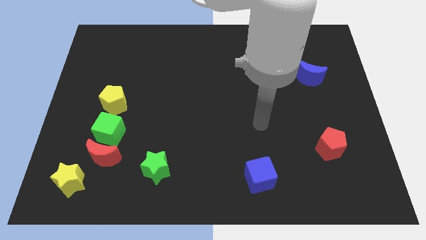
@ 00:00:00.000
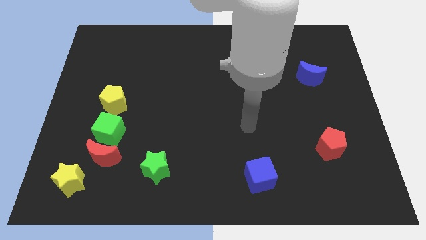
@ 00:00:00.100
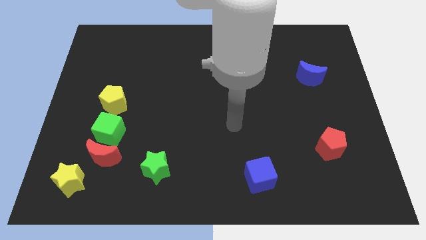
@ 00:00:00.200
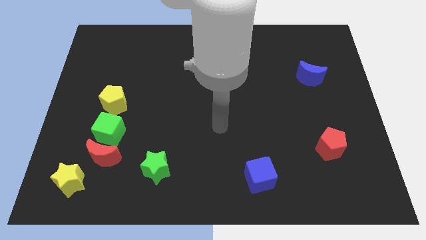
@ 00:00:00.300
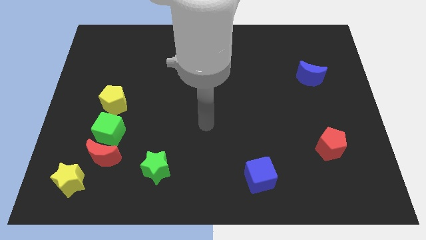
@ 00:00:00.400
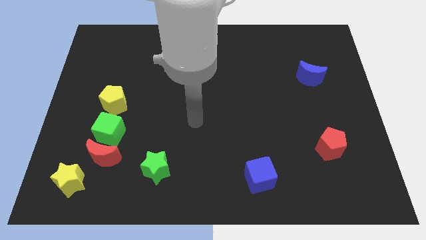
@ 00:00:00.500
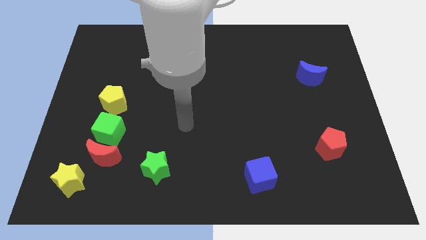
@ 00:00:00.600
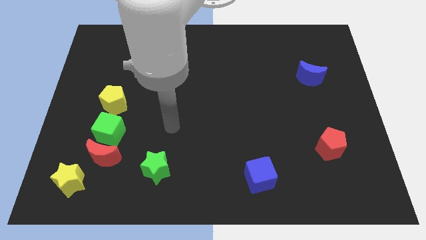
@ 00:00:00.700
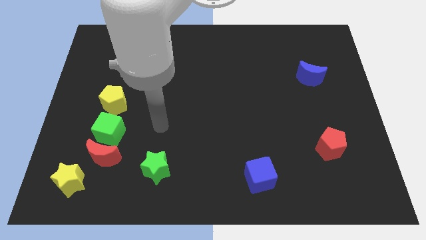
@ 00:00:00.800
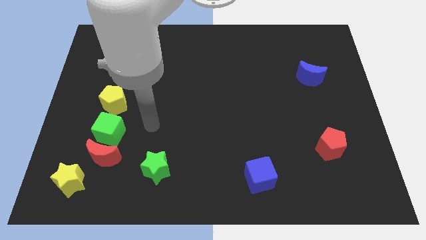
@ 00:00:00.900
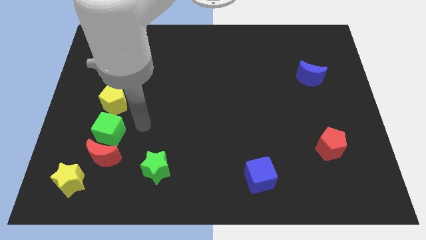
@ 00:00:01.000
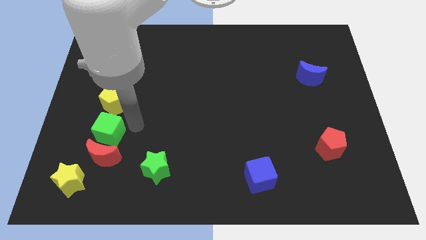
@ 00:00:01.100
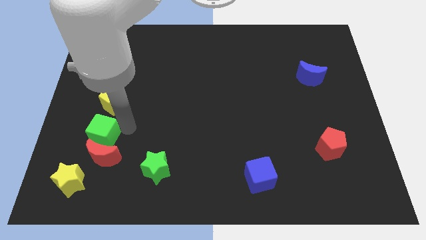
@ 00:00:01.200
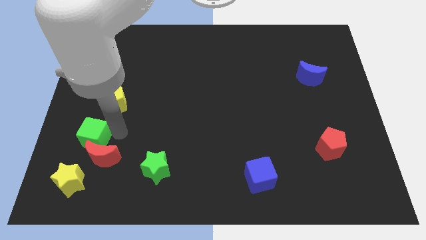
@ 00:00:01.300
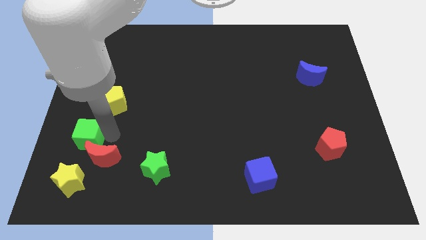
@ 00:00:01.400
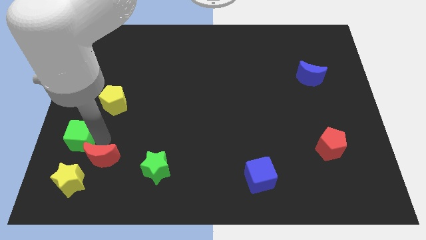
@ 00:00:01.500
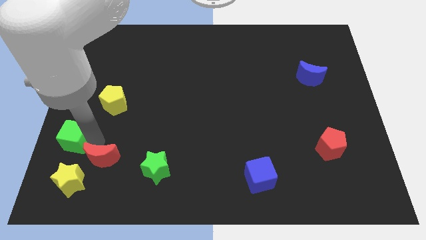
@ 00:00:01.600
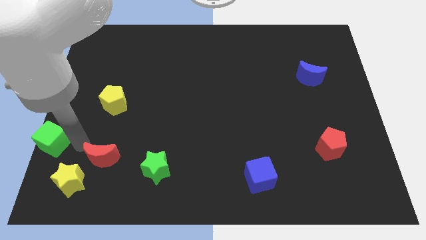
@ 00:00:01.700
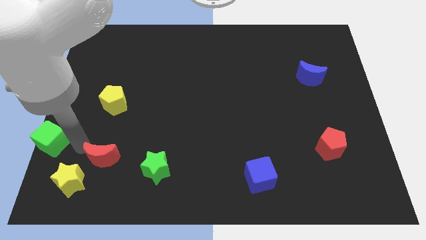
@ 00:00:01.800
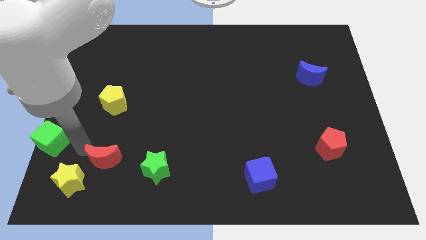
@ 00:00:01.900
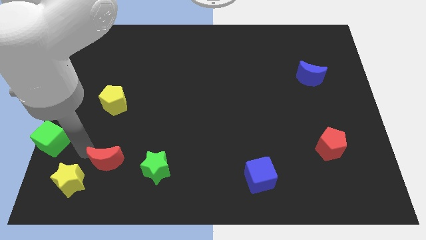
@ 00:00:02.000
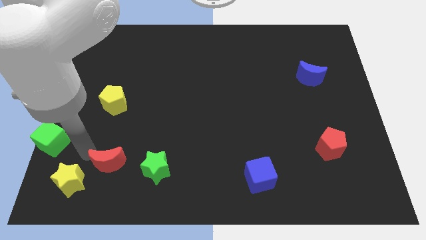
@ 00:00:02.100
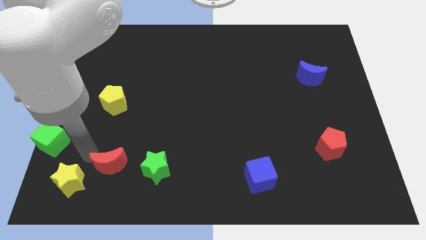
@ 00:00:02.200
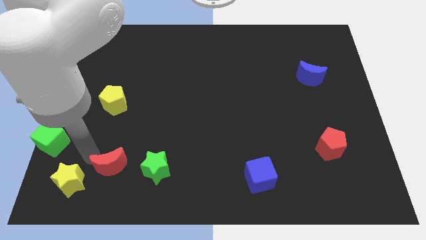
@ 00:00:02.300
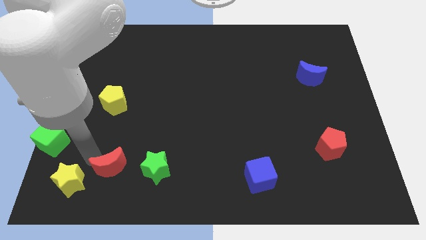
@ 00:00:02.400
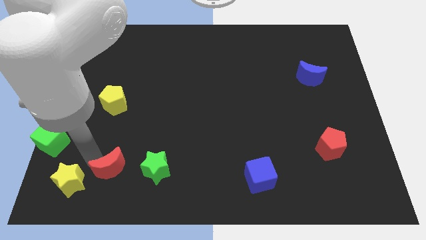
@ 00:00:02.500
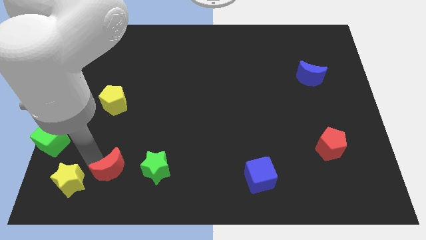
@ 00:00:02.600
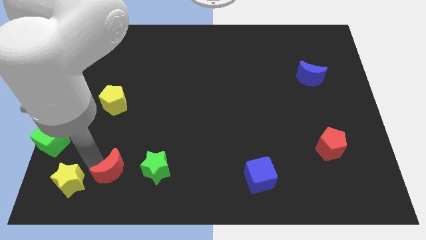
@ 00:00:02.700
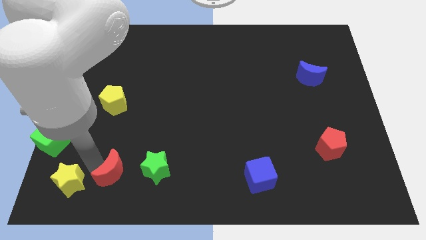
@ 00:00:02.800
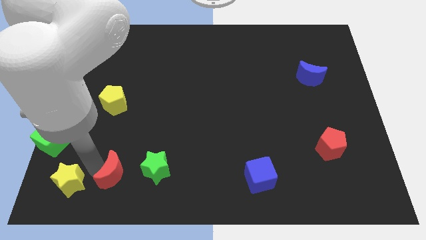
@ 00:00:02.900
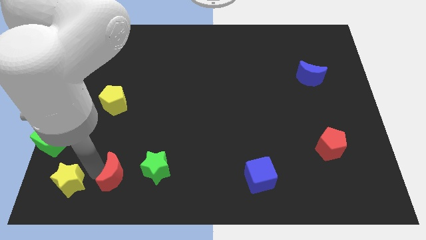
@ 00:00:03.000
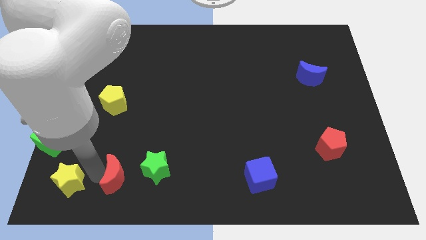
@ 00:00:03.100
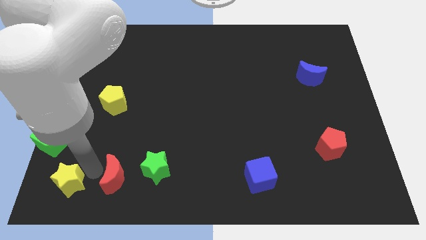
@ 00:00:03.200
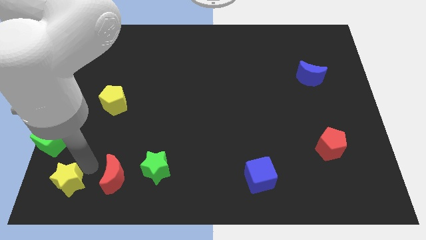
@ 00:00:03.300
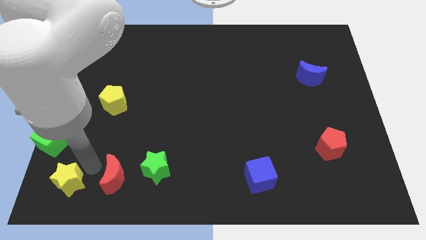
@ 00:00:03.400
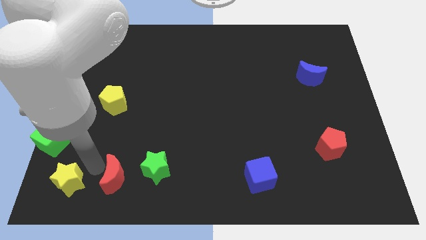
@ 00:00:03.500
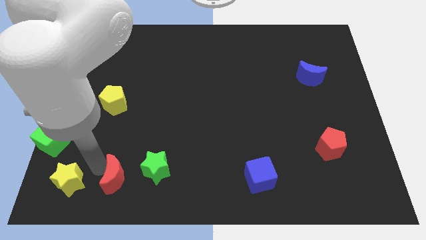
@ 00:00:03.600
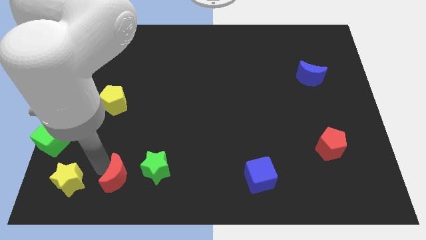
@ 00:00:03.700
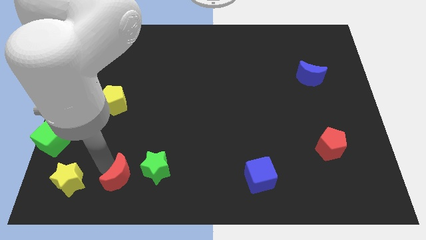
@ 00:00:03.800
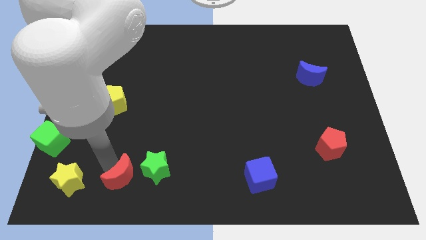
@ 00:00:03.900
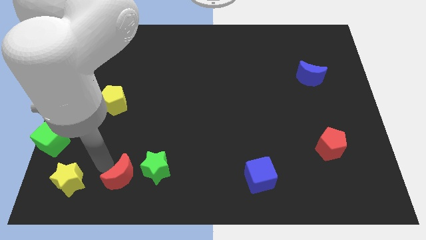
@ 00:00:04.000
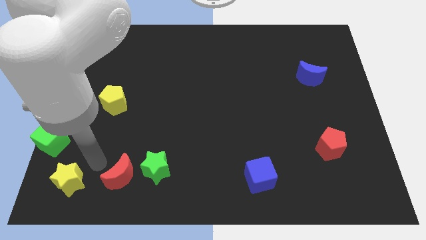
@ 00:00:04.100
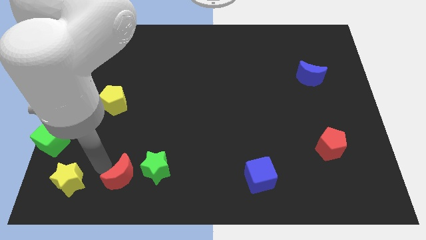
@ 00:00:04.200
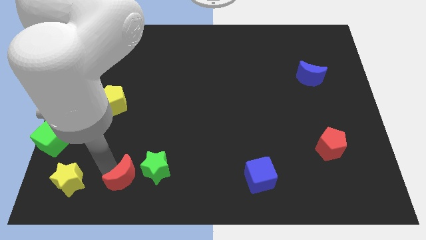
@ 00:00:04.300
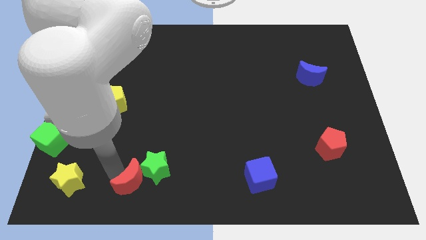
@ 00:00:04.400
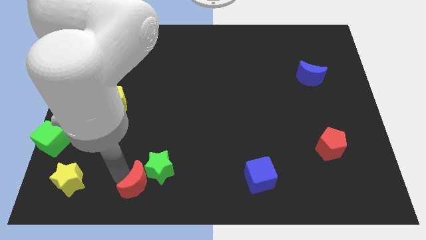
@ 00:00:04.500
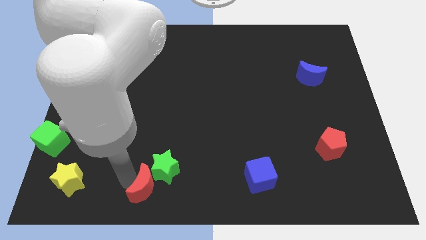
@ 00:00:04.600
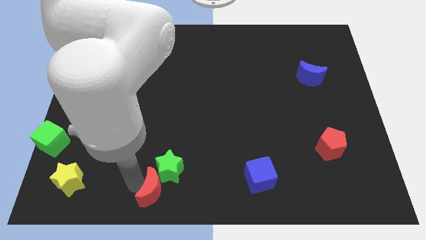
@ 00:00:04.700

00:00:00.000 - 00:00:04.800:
push the red moon to the bottom

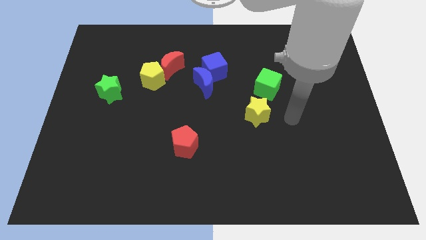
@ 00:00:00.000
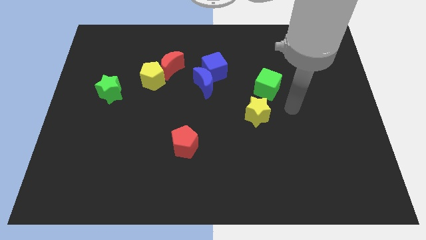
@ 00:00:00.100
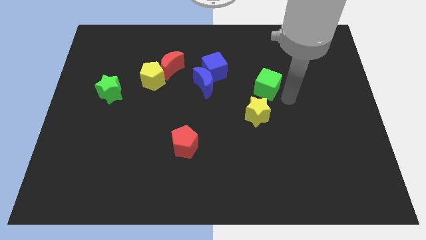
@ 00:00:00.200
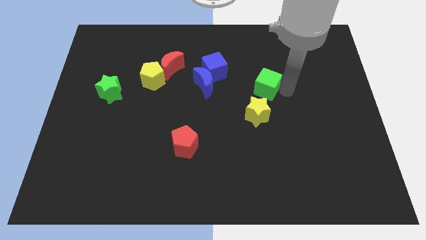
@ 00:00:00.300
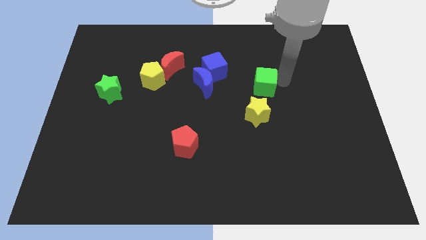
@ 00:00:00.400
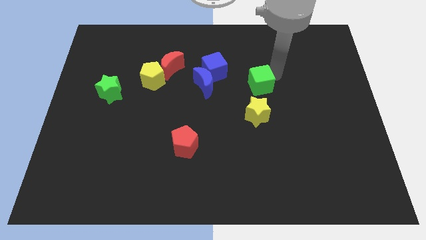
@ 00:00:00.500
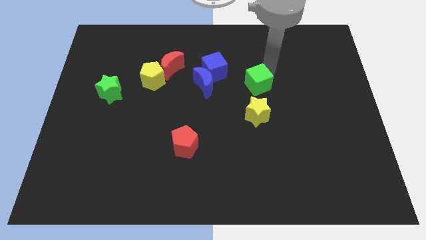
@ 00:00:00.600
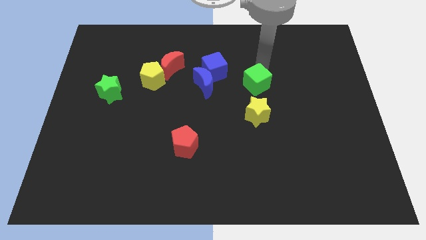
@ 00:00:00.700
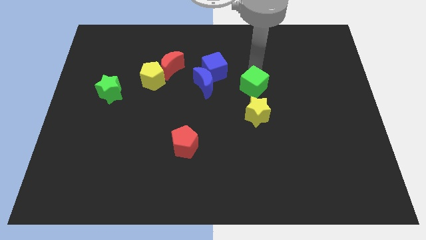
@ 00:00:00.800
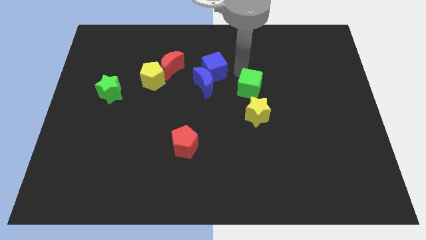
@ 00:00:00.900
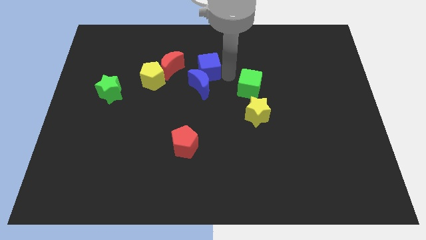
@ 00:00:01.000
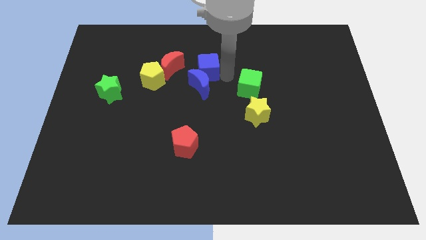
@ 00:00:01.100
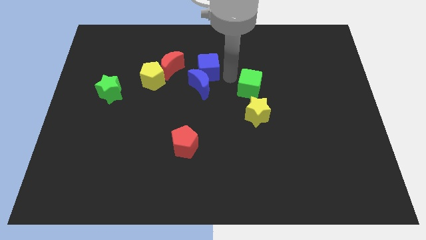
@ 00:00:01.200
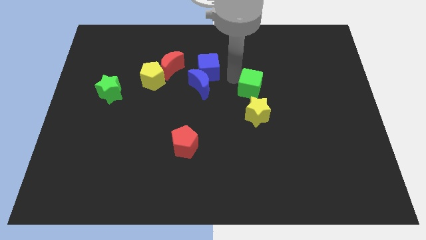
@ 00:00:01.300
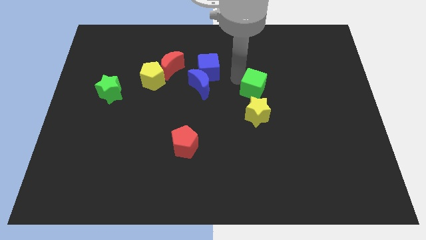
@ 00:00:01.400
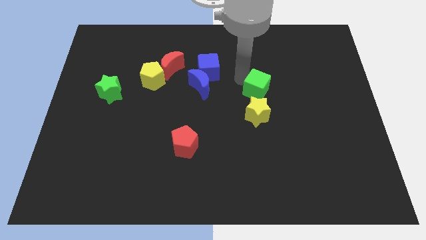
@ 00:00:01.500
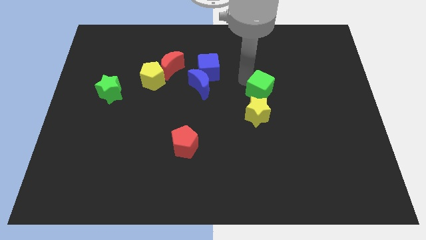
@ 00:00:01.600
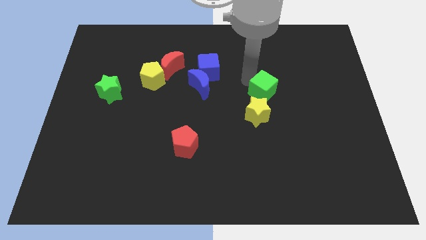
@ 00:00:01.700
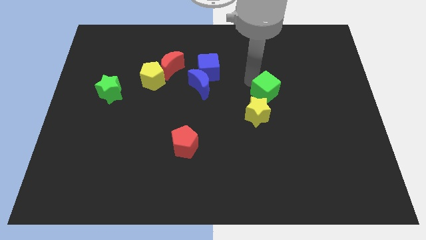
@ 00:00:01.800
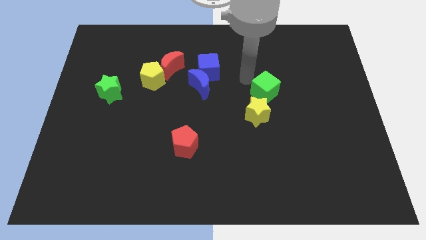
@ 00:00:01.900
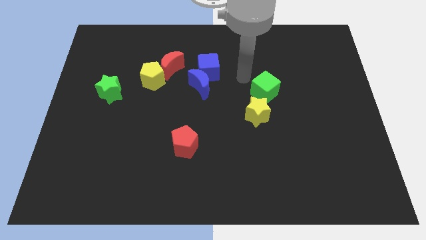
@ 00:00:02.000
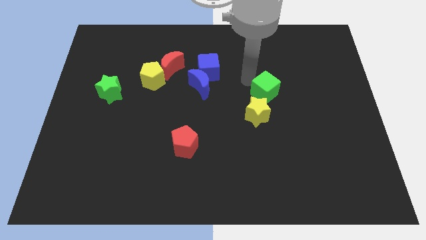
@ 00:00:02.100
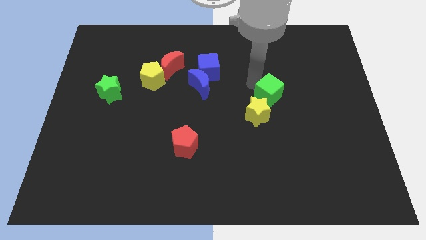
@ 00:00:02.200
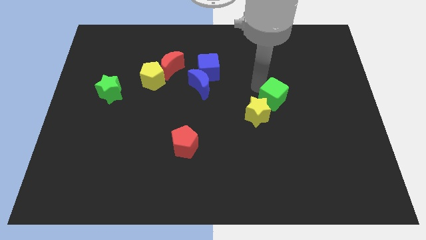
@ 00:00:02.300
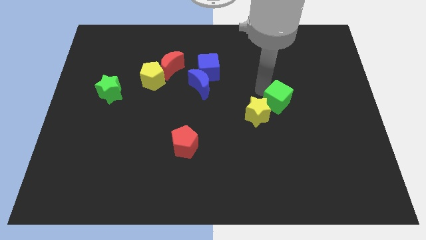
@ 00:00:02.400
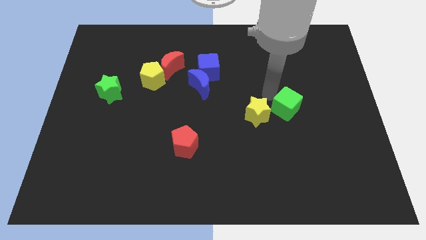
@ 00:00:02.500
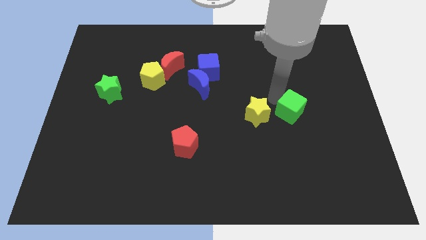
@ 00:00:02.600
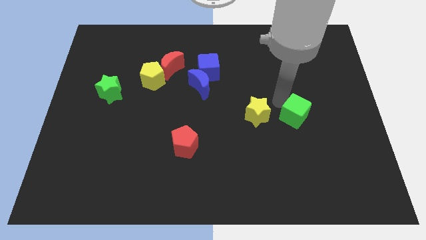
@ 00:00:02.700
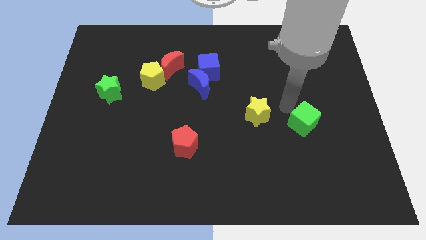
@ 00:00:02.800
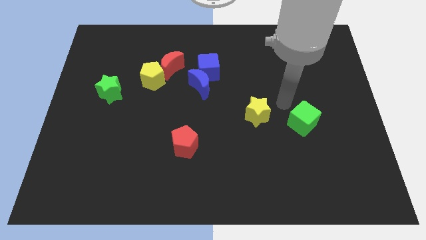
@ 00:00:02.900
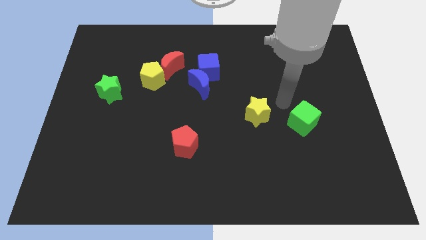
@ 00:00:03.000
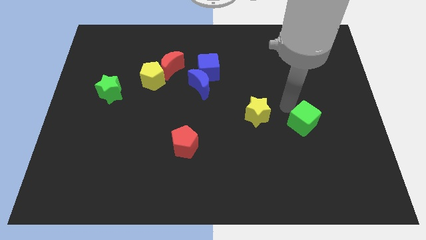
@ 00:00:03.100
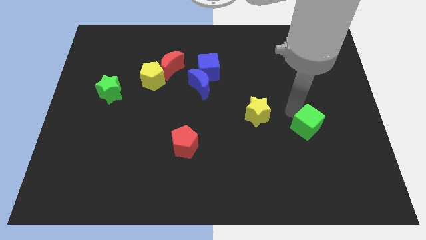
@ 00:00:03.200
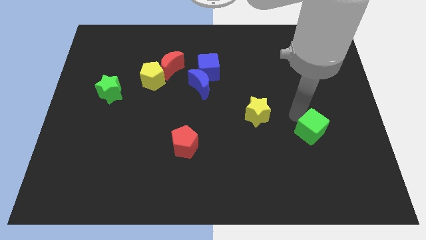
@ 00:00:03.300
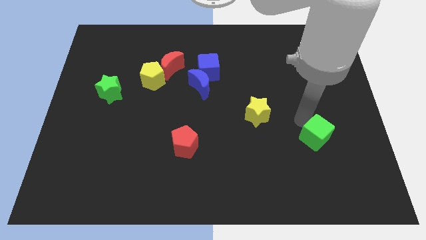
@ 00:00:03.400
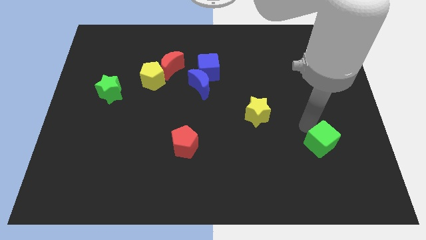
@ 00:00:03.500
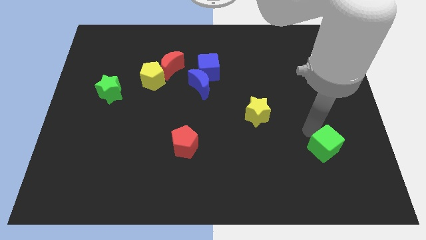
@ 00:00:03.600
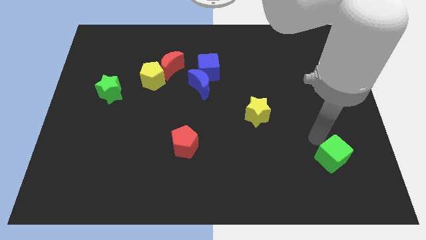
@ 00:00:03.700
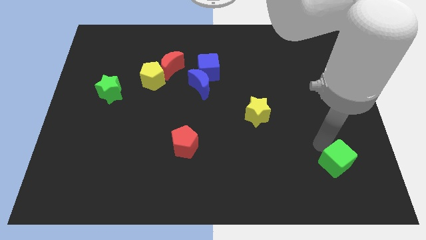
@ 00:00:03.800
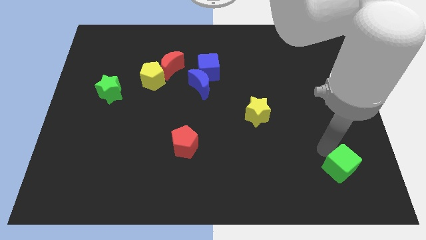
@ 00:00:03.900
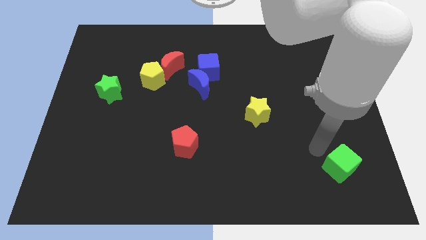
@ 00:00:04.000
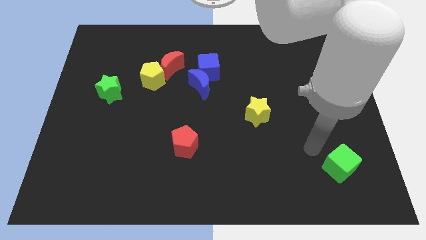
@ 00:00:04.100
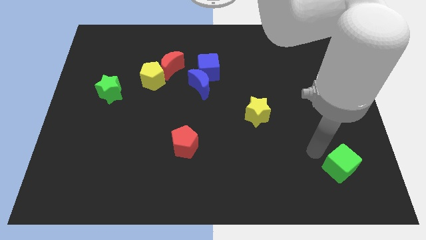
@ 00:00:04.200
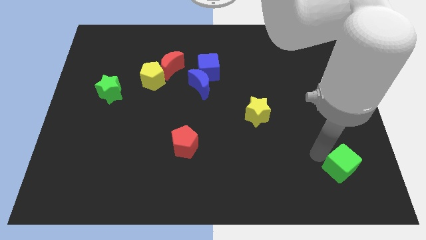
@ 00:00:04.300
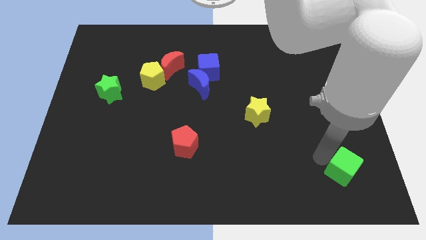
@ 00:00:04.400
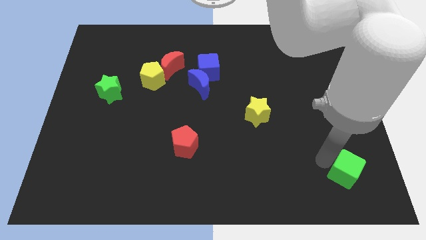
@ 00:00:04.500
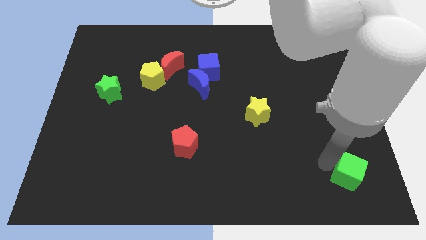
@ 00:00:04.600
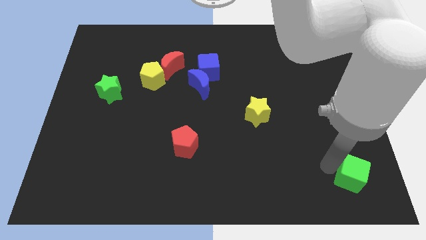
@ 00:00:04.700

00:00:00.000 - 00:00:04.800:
slide the green cube to the bottom right of the board
